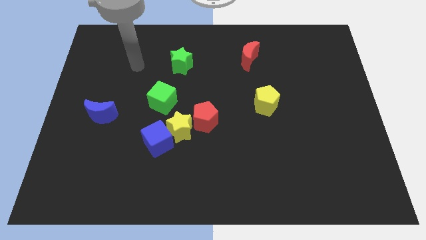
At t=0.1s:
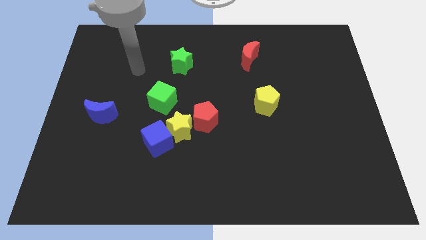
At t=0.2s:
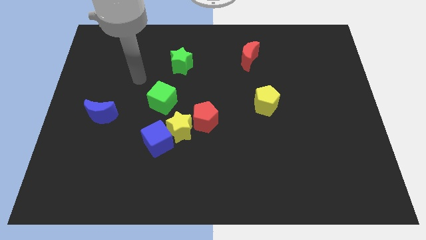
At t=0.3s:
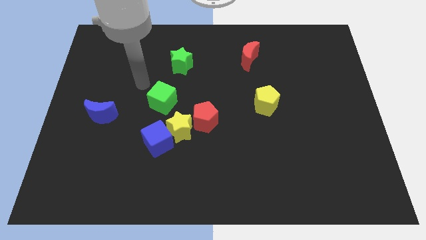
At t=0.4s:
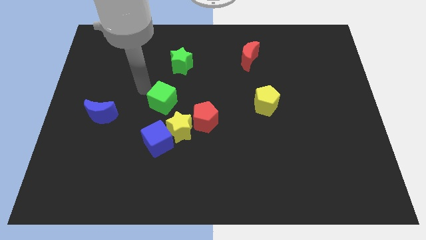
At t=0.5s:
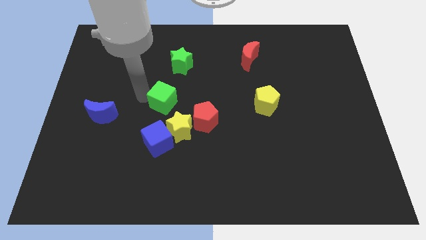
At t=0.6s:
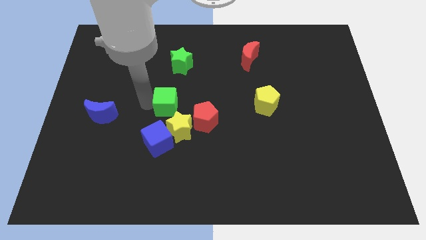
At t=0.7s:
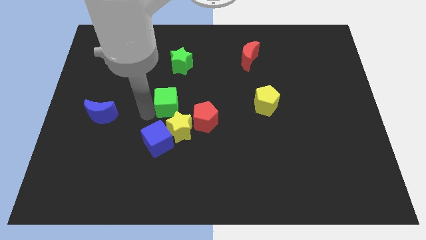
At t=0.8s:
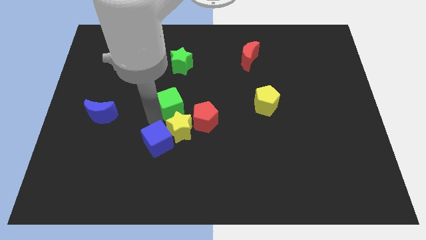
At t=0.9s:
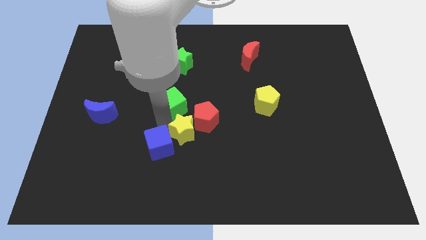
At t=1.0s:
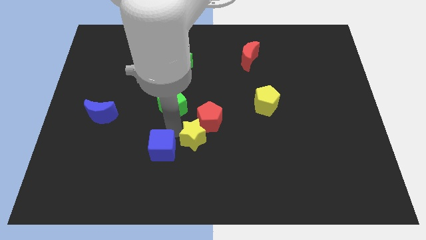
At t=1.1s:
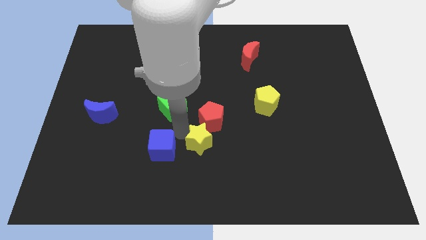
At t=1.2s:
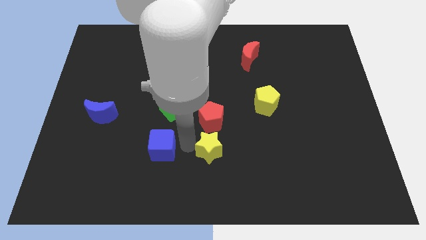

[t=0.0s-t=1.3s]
pull the blue cube apart from the yellow star

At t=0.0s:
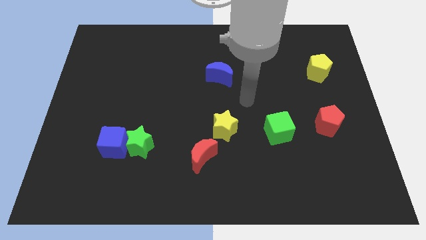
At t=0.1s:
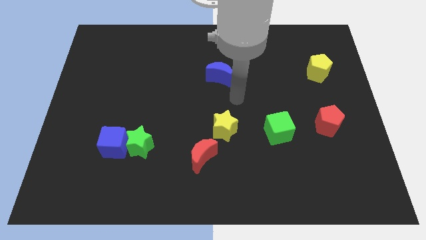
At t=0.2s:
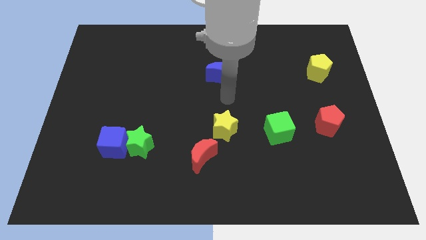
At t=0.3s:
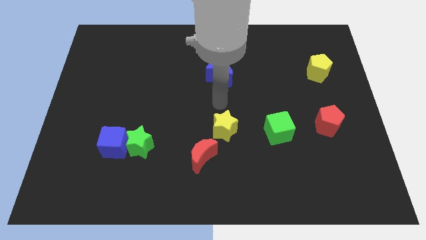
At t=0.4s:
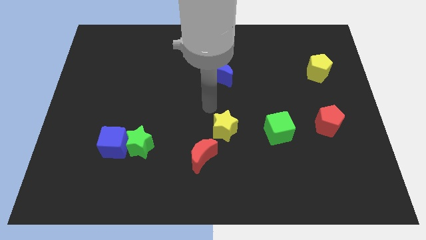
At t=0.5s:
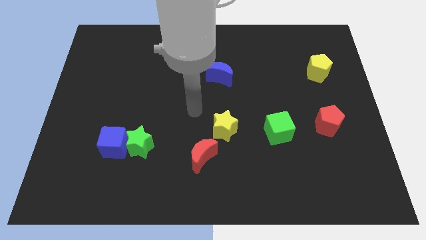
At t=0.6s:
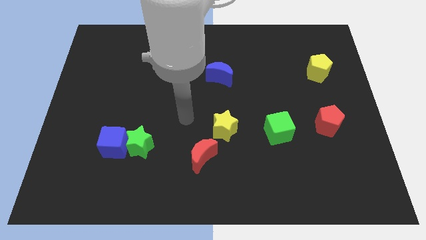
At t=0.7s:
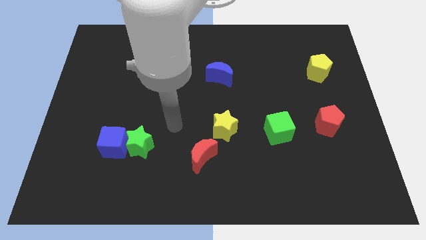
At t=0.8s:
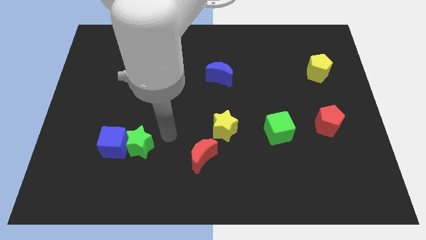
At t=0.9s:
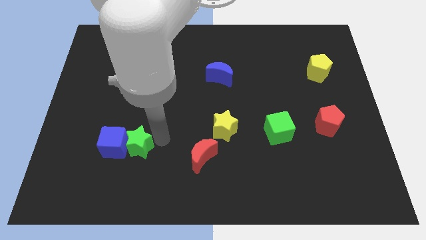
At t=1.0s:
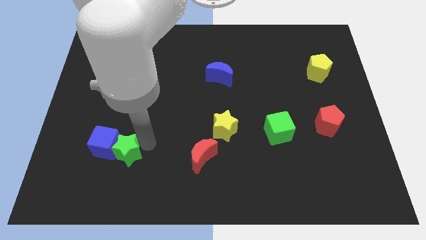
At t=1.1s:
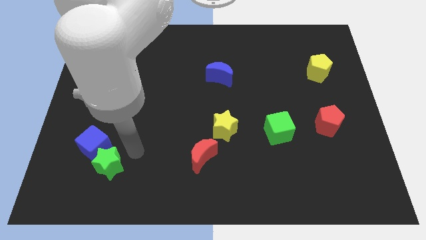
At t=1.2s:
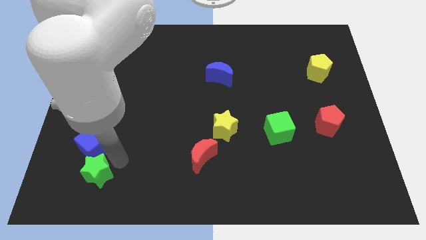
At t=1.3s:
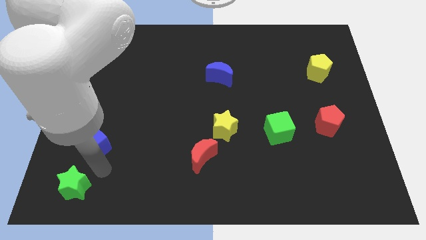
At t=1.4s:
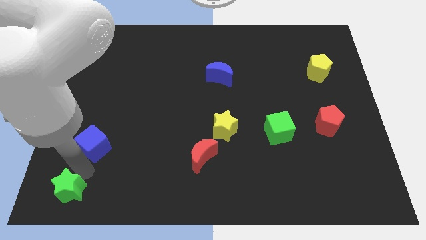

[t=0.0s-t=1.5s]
separate the blue cube from the green star

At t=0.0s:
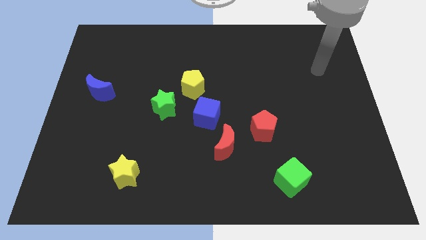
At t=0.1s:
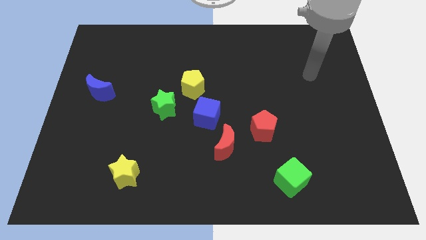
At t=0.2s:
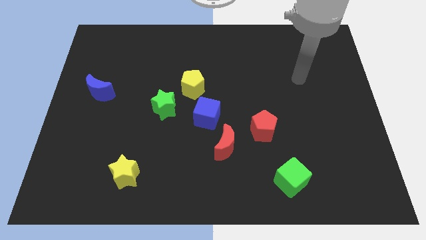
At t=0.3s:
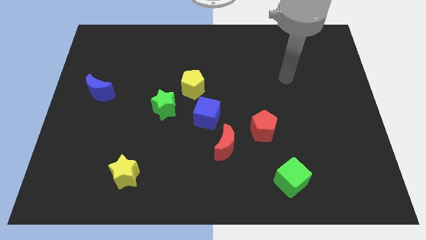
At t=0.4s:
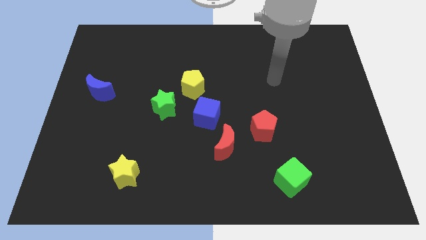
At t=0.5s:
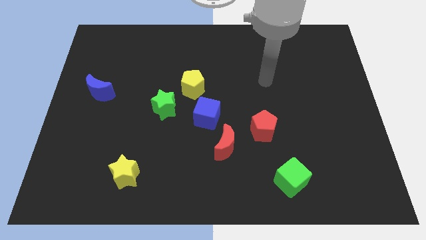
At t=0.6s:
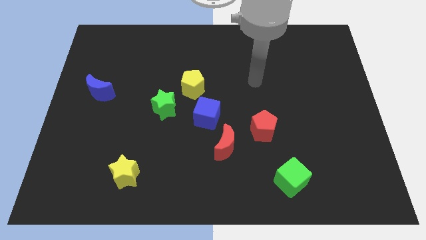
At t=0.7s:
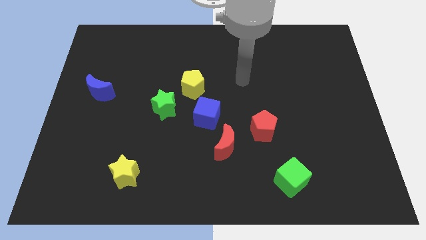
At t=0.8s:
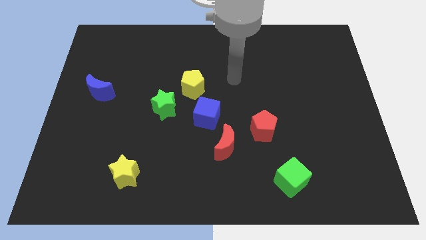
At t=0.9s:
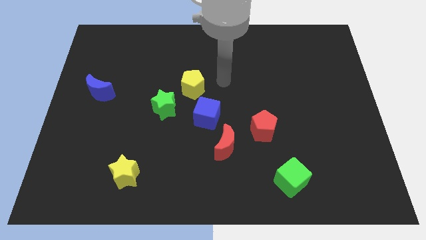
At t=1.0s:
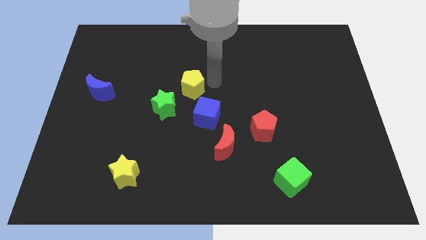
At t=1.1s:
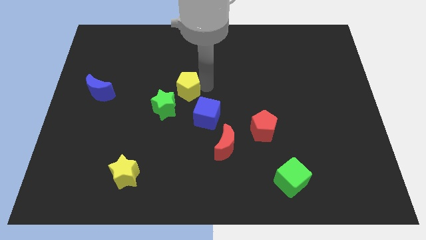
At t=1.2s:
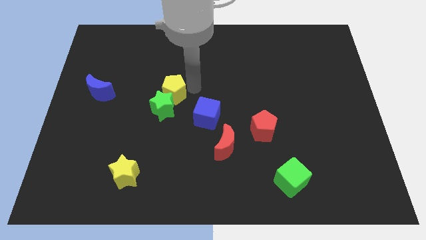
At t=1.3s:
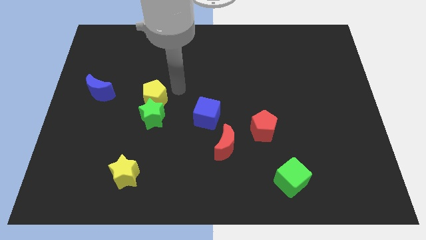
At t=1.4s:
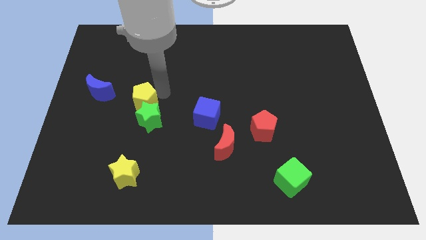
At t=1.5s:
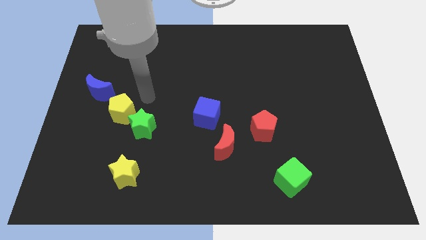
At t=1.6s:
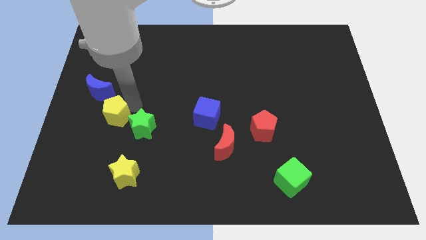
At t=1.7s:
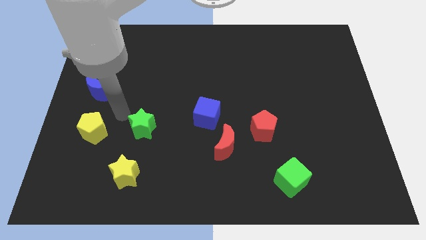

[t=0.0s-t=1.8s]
separate the green star from the yellow pentagon

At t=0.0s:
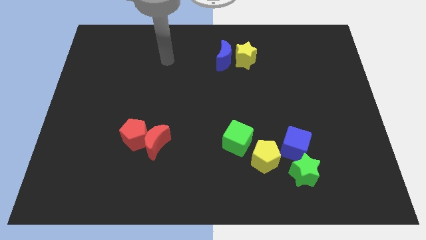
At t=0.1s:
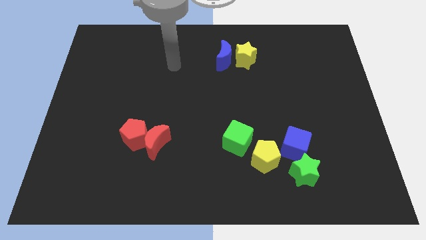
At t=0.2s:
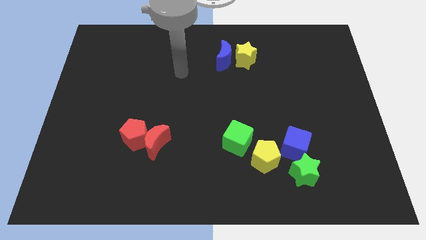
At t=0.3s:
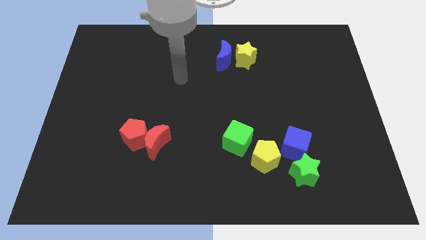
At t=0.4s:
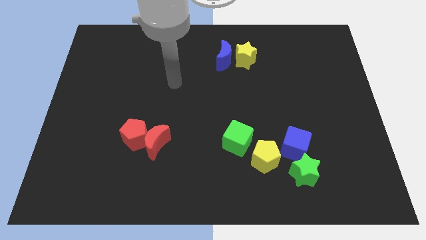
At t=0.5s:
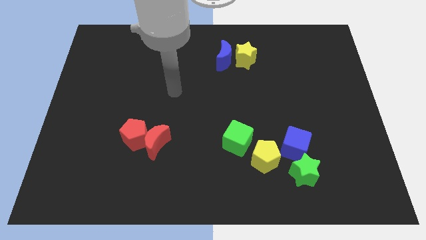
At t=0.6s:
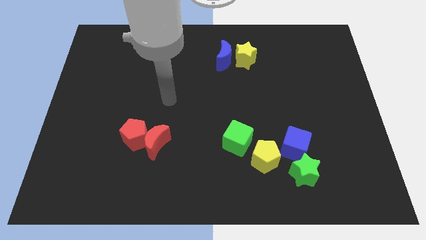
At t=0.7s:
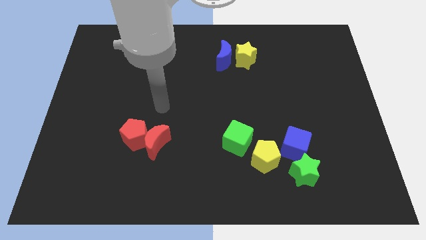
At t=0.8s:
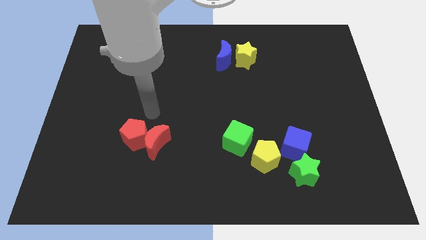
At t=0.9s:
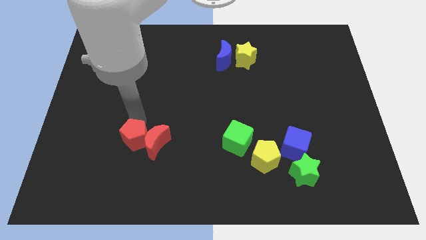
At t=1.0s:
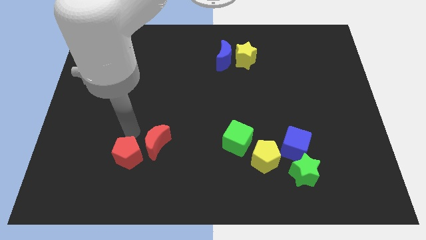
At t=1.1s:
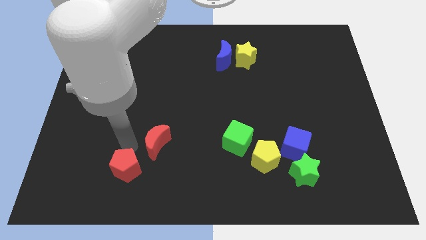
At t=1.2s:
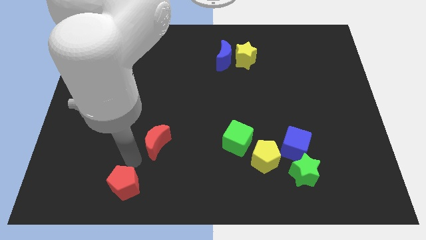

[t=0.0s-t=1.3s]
pull the red moon apart from the red pentagon

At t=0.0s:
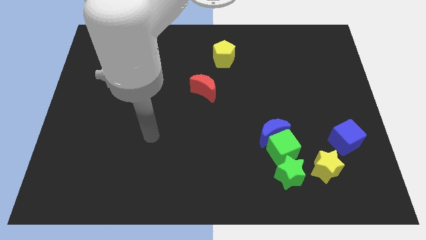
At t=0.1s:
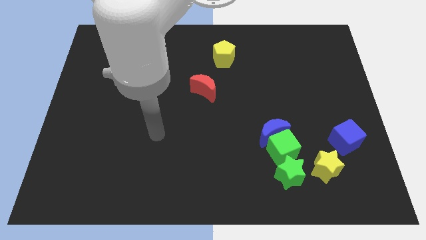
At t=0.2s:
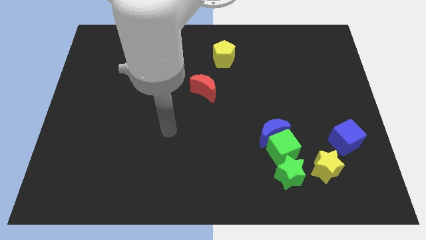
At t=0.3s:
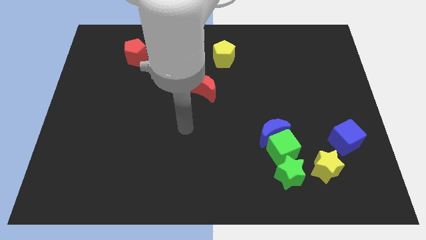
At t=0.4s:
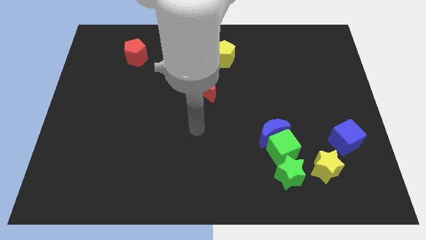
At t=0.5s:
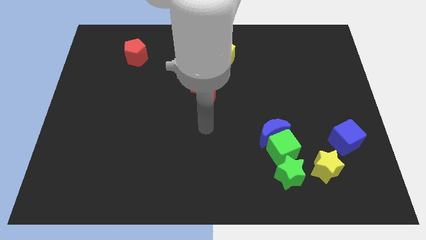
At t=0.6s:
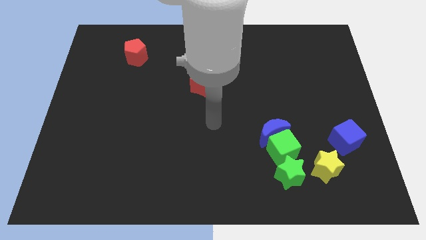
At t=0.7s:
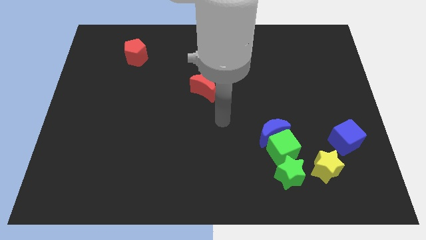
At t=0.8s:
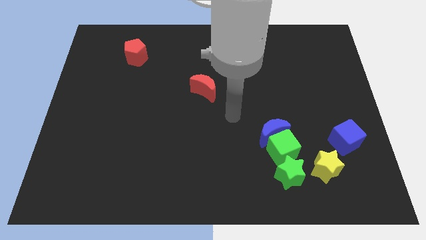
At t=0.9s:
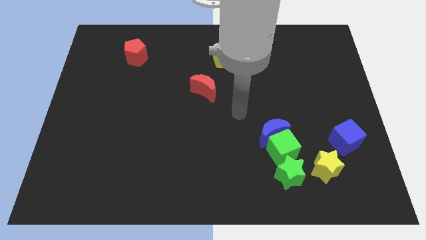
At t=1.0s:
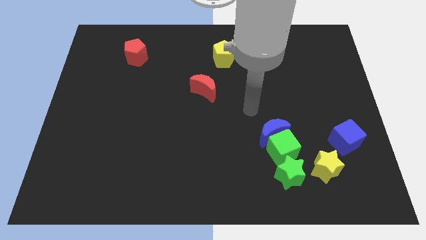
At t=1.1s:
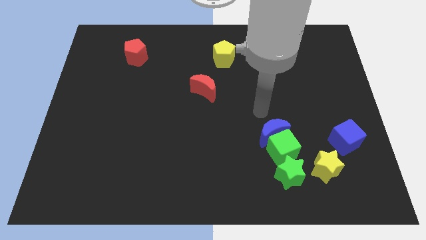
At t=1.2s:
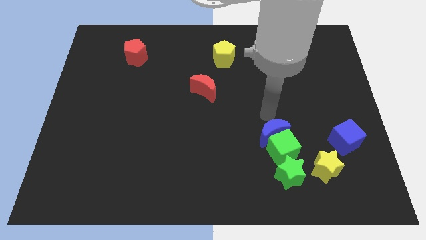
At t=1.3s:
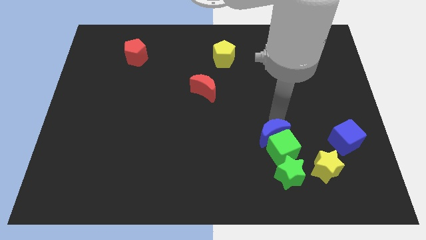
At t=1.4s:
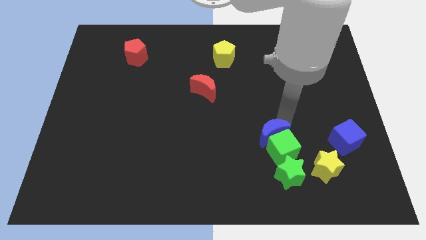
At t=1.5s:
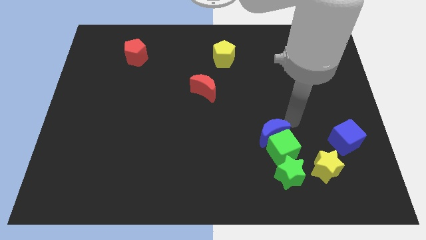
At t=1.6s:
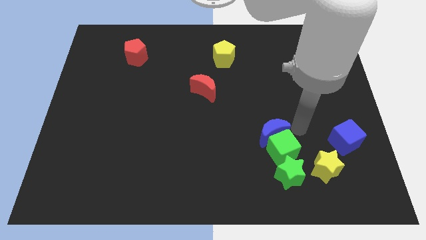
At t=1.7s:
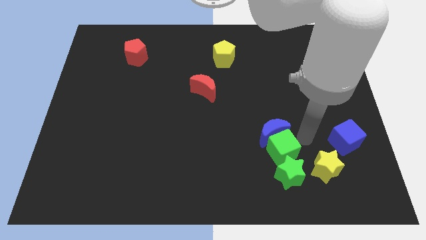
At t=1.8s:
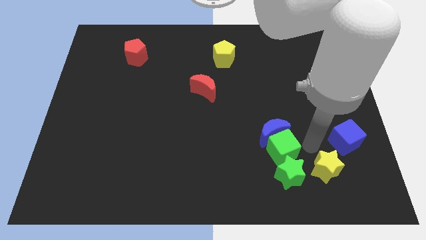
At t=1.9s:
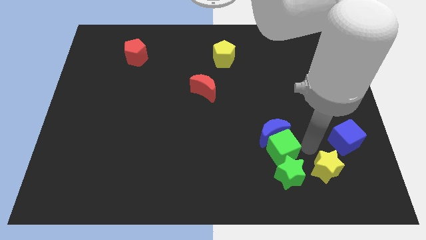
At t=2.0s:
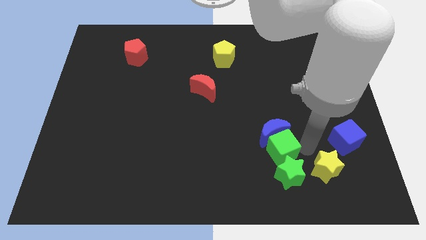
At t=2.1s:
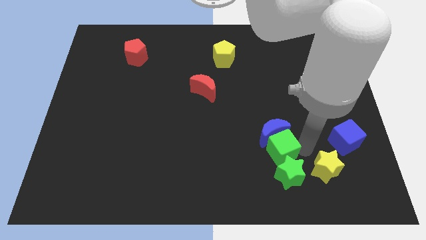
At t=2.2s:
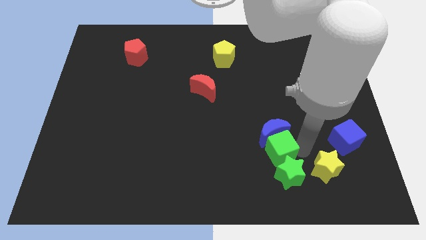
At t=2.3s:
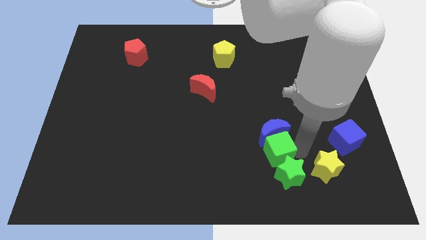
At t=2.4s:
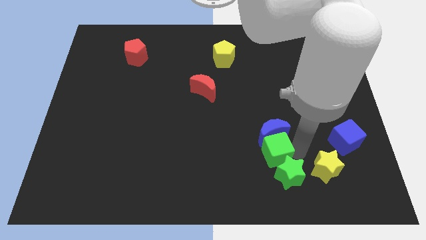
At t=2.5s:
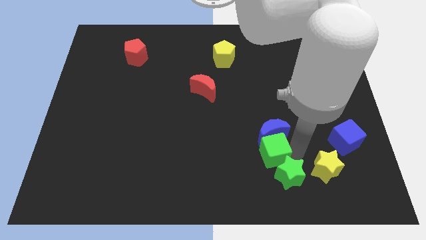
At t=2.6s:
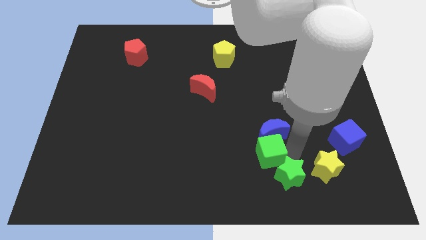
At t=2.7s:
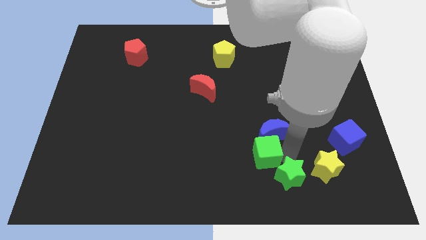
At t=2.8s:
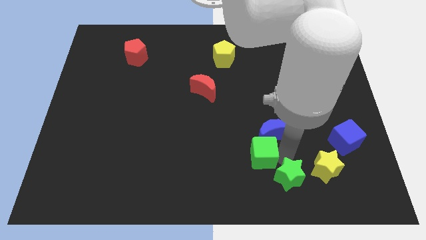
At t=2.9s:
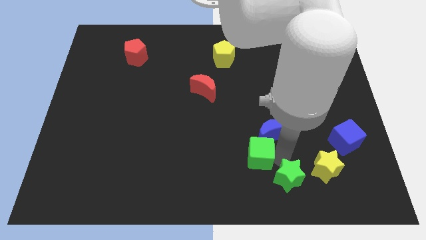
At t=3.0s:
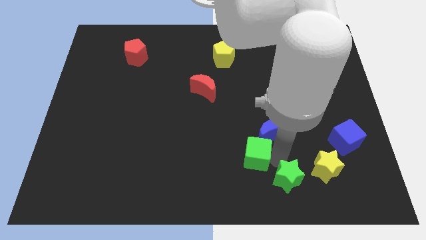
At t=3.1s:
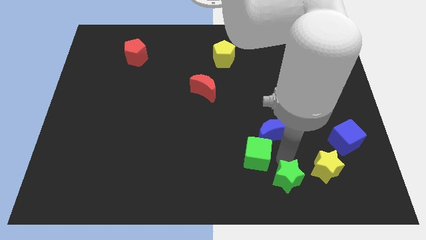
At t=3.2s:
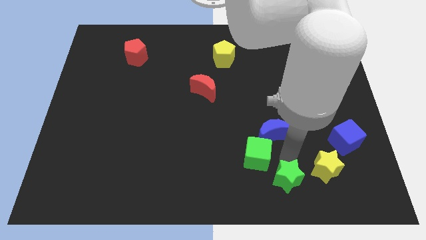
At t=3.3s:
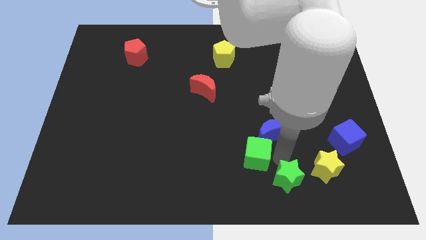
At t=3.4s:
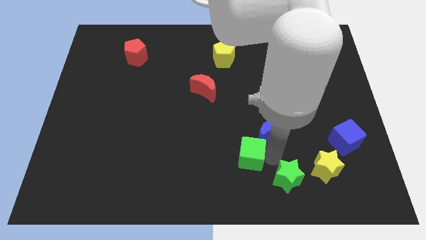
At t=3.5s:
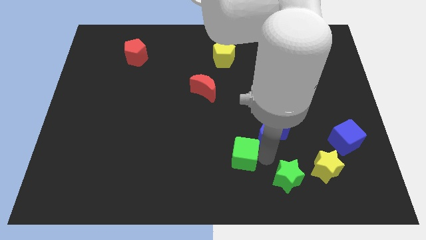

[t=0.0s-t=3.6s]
separate the green cube from the blue moon, green star, and yellow star
